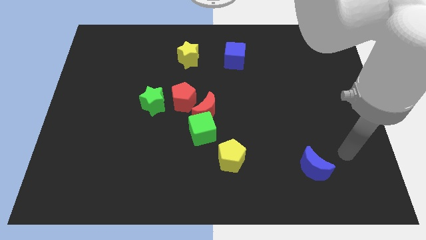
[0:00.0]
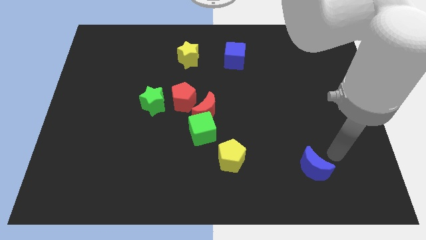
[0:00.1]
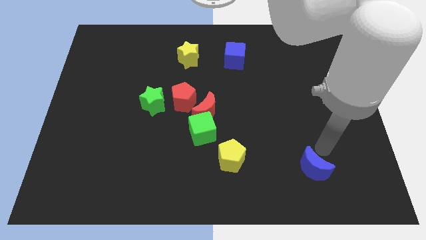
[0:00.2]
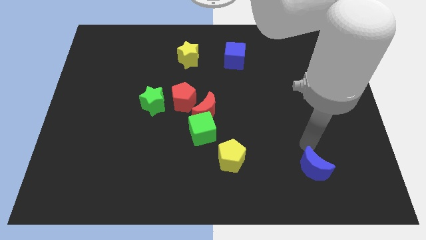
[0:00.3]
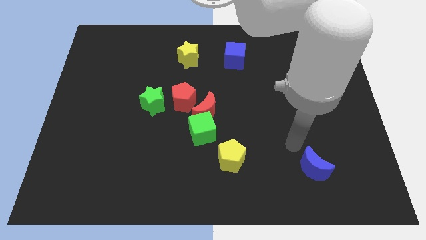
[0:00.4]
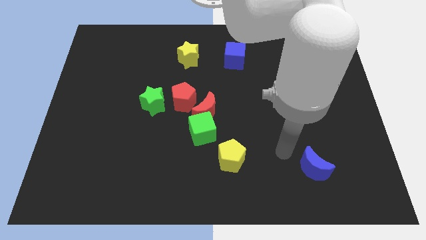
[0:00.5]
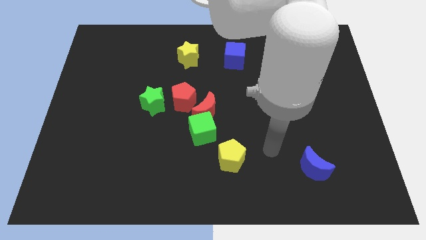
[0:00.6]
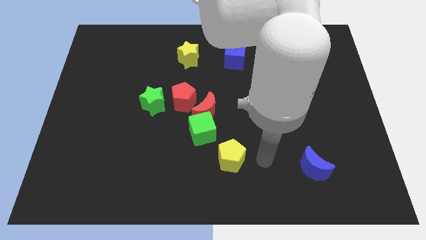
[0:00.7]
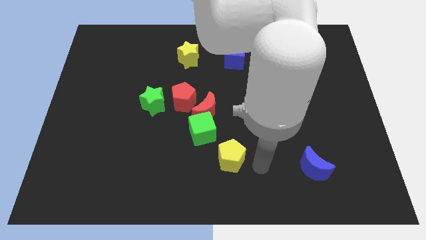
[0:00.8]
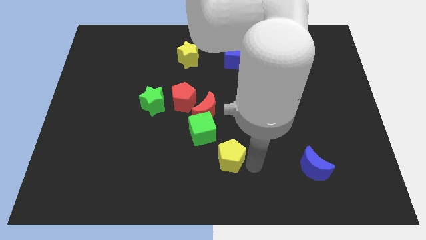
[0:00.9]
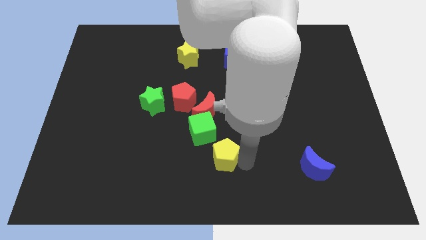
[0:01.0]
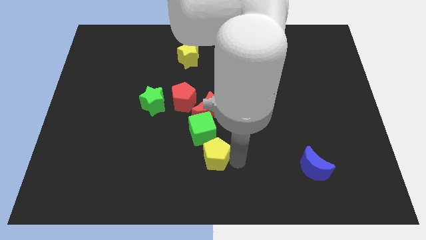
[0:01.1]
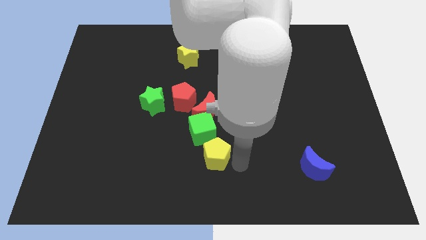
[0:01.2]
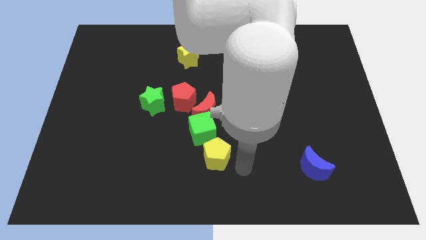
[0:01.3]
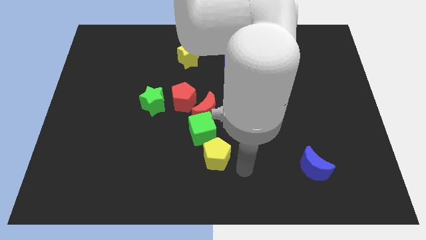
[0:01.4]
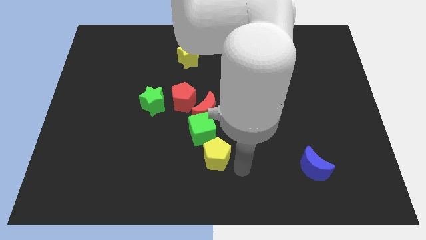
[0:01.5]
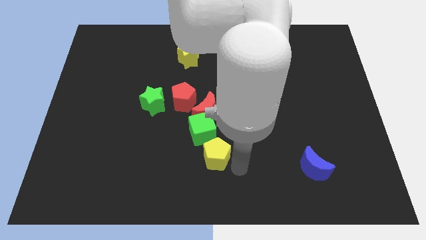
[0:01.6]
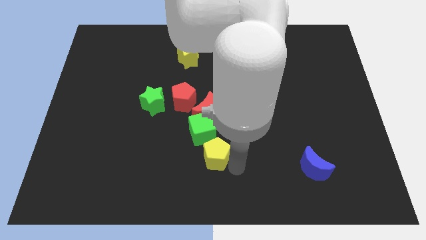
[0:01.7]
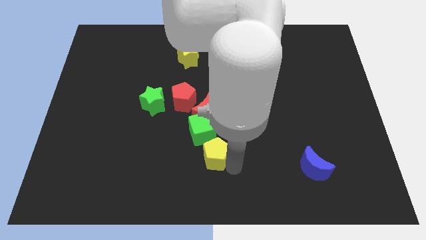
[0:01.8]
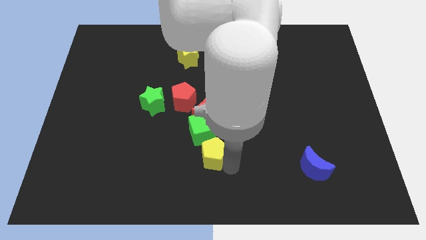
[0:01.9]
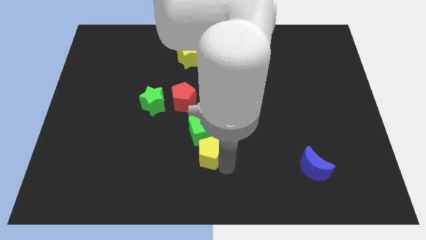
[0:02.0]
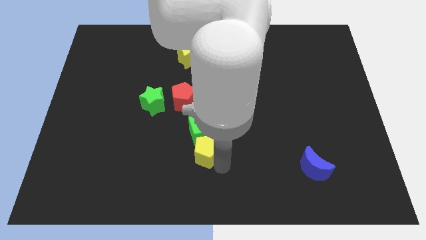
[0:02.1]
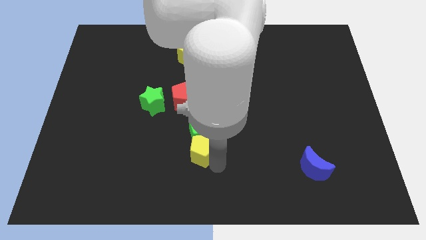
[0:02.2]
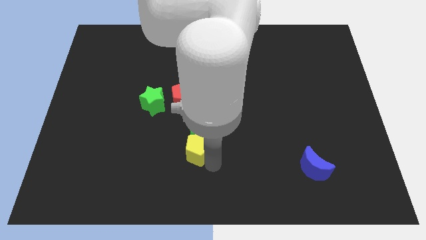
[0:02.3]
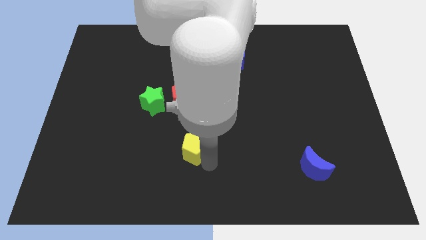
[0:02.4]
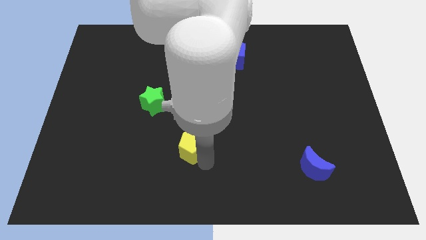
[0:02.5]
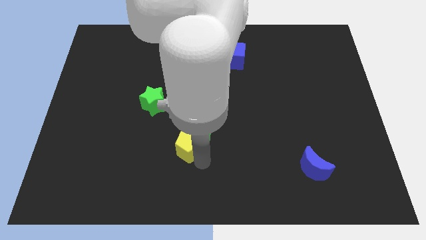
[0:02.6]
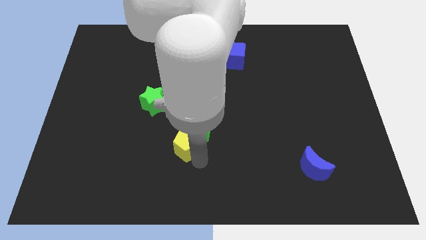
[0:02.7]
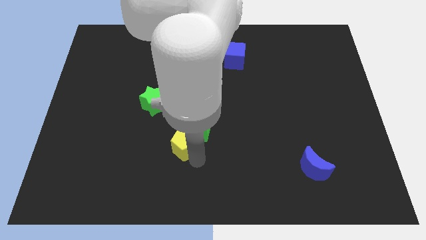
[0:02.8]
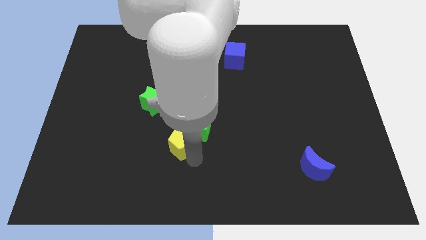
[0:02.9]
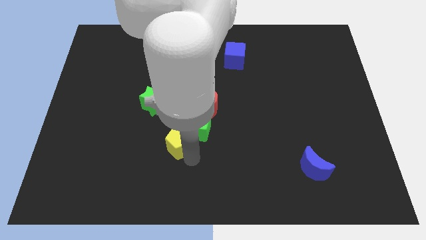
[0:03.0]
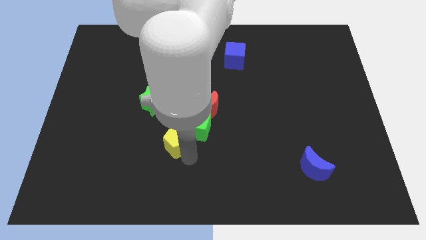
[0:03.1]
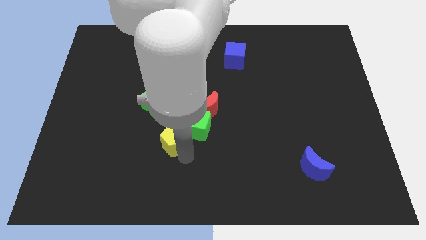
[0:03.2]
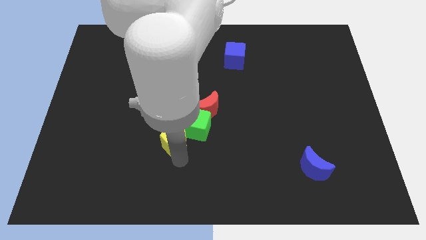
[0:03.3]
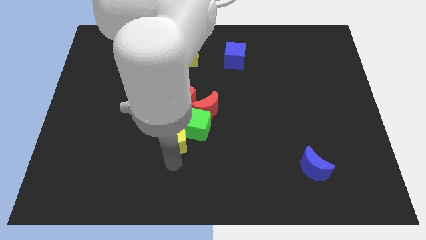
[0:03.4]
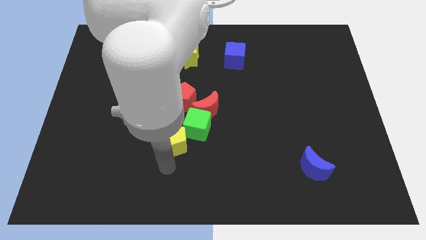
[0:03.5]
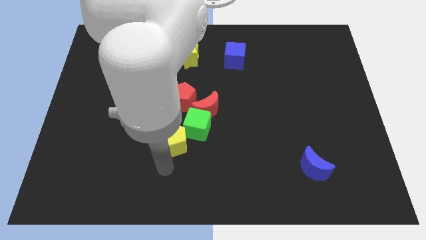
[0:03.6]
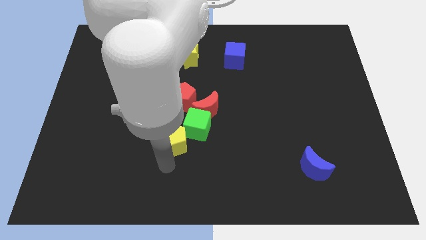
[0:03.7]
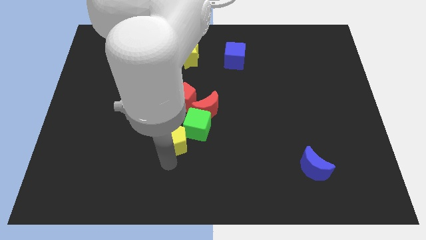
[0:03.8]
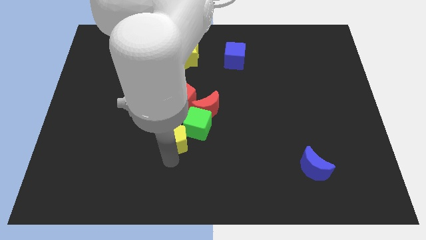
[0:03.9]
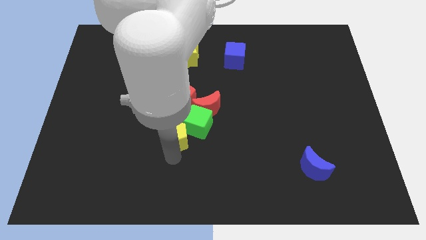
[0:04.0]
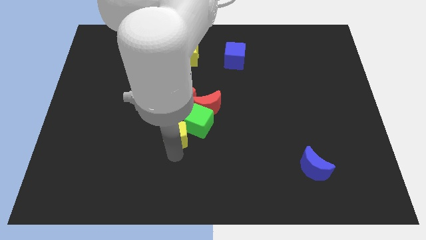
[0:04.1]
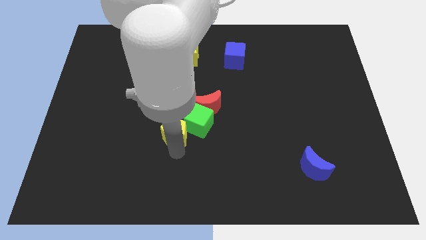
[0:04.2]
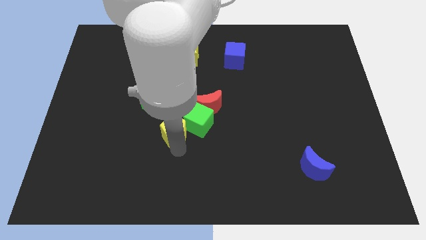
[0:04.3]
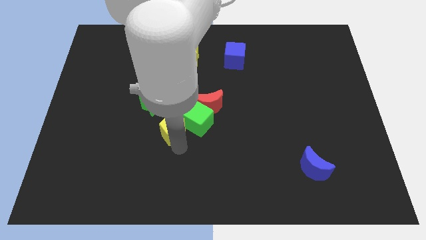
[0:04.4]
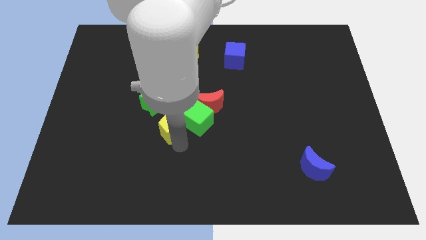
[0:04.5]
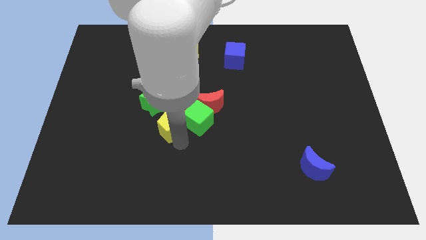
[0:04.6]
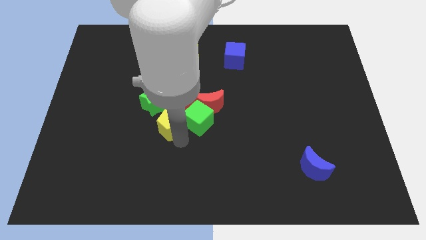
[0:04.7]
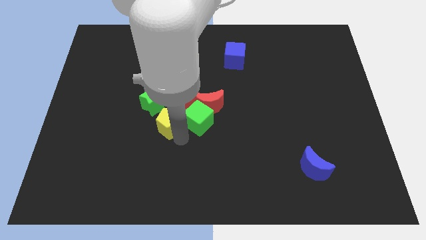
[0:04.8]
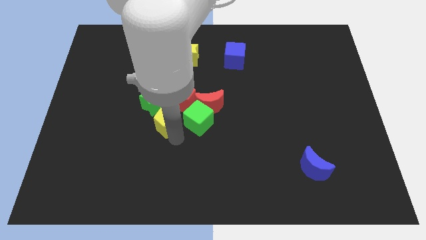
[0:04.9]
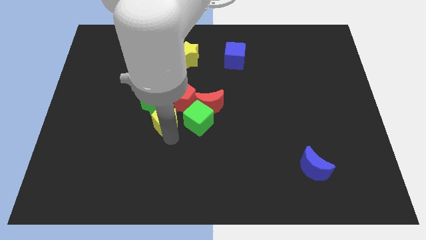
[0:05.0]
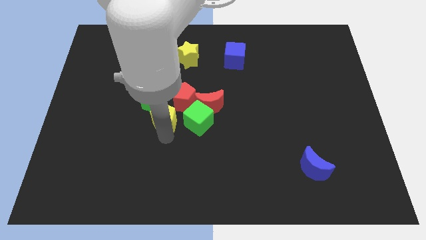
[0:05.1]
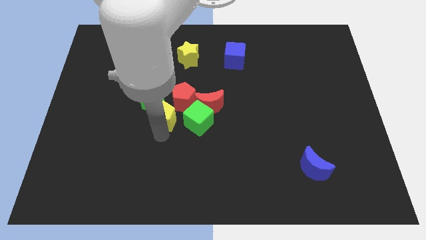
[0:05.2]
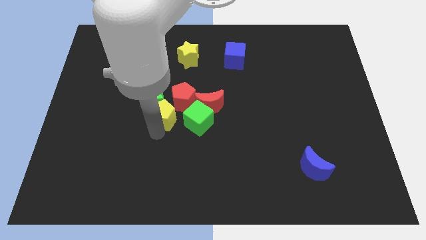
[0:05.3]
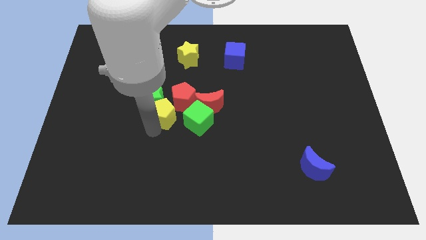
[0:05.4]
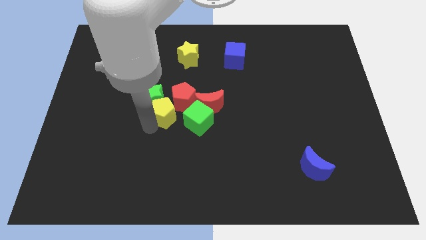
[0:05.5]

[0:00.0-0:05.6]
slide the yellow pentagon close to the red pentagon
